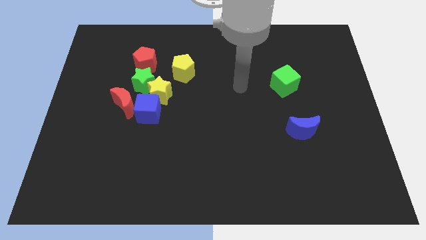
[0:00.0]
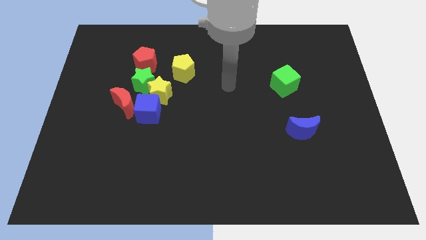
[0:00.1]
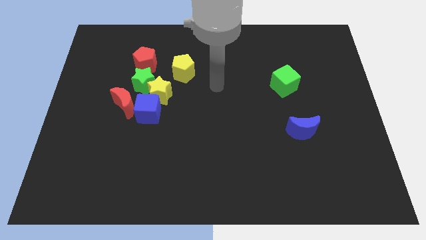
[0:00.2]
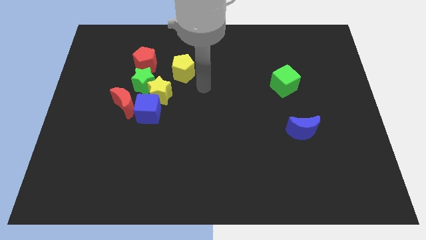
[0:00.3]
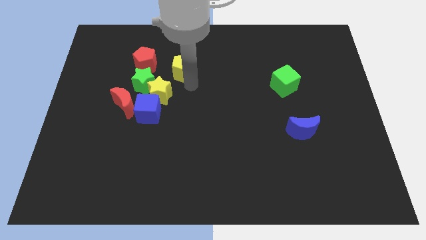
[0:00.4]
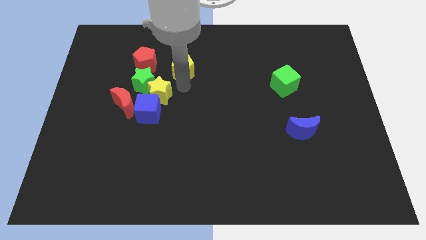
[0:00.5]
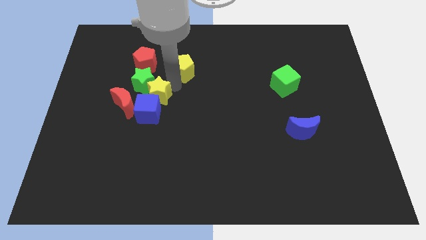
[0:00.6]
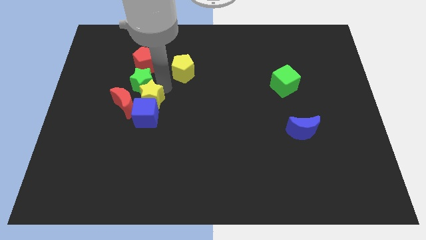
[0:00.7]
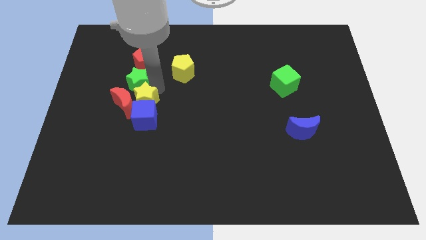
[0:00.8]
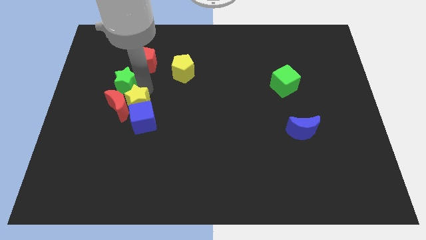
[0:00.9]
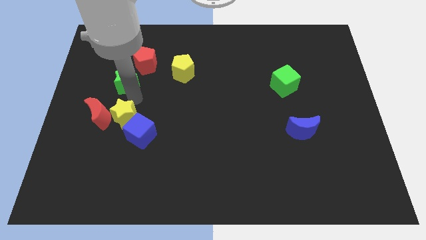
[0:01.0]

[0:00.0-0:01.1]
pull the blue cube apart from the yellow star, red moon, and green star

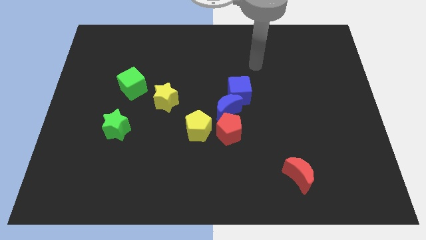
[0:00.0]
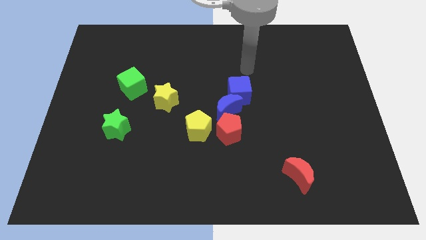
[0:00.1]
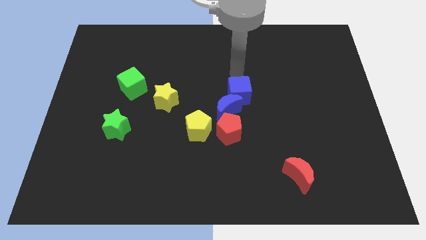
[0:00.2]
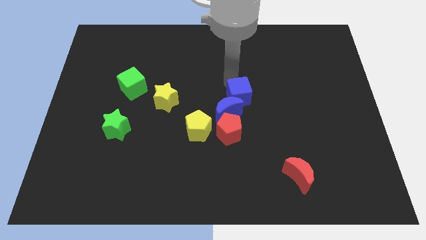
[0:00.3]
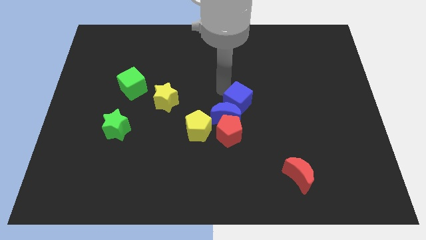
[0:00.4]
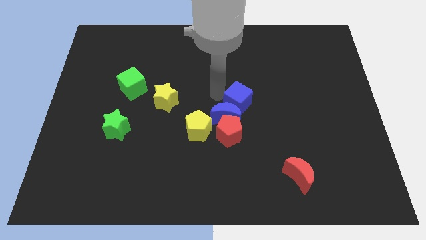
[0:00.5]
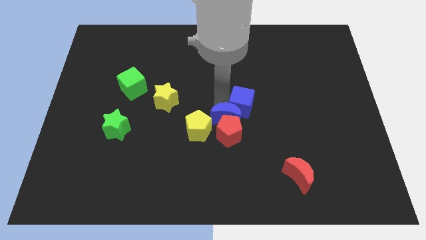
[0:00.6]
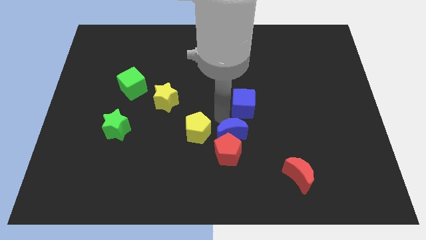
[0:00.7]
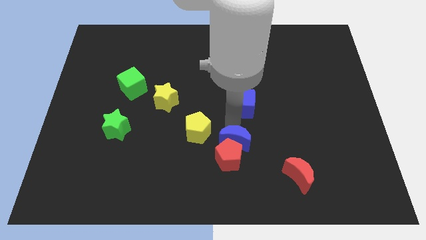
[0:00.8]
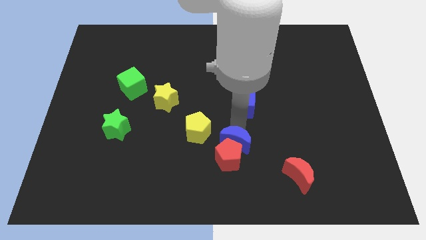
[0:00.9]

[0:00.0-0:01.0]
move the blue cube away from the blue moon

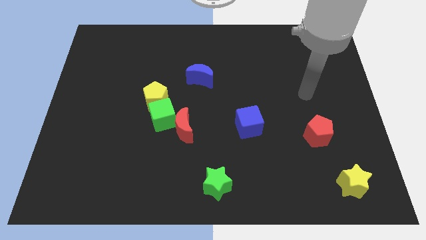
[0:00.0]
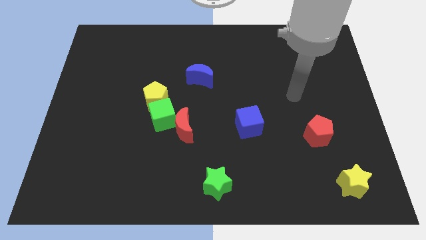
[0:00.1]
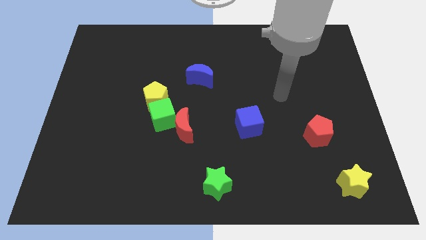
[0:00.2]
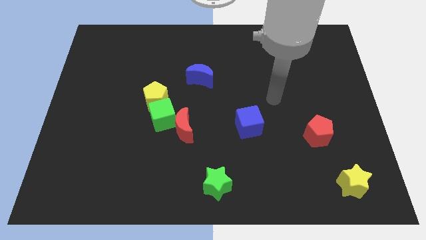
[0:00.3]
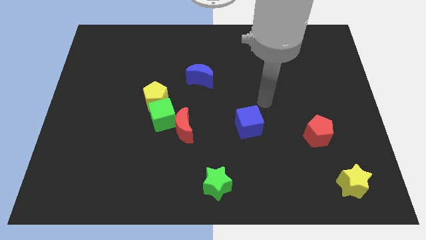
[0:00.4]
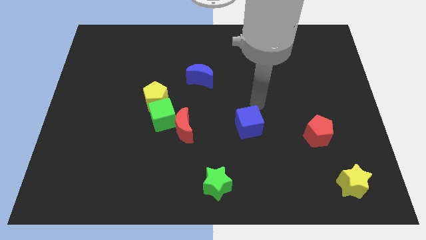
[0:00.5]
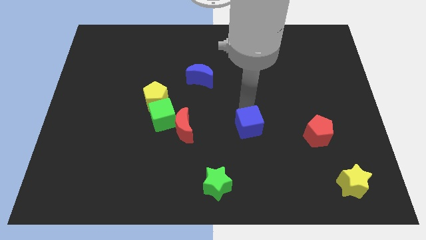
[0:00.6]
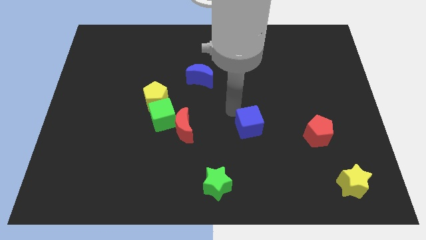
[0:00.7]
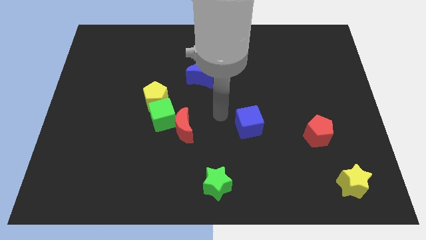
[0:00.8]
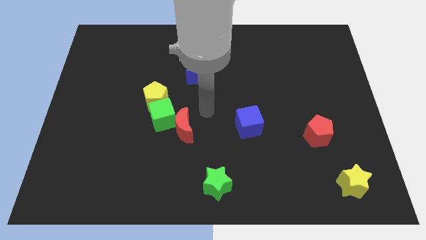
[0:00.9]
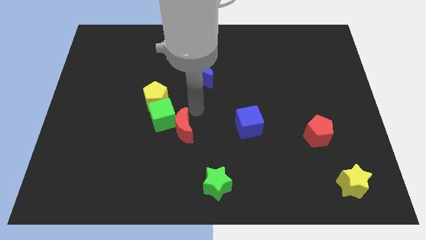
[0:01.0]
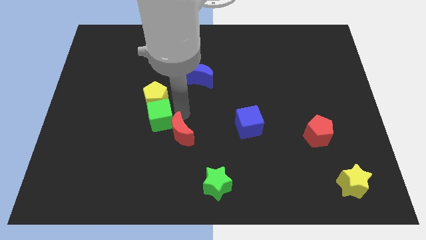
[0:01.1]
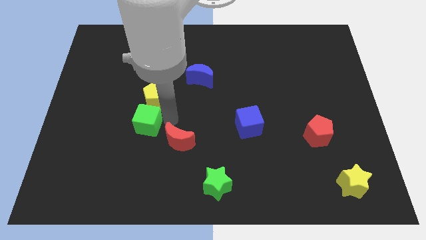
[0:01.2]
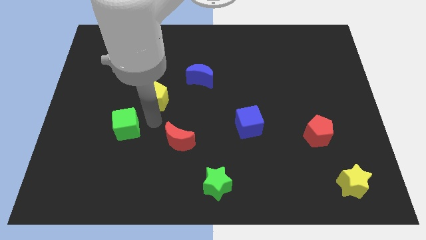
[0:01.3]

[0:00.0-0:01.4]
separate the yellow pentagon from the green cube

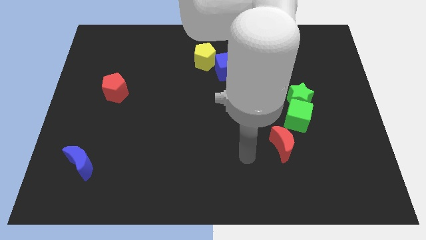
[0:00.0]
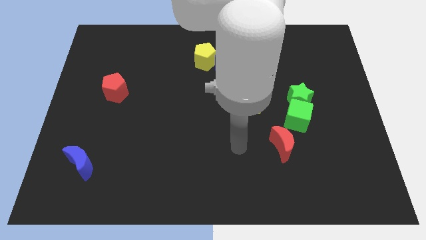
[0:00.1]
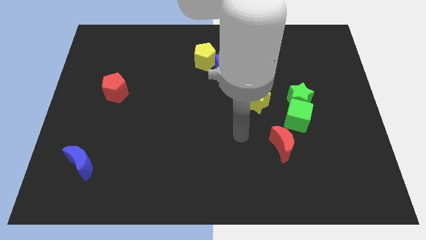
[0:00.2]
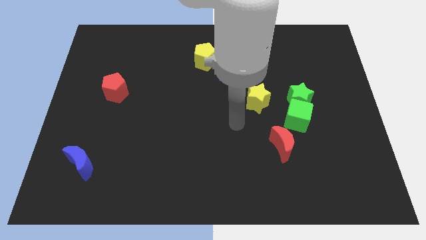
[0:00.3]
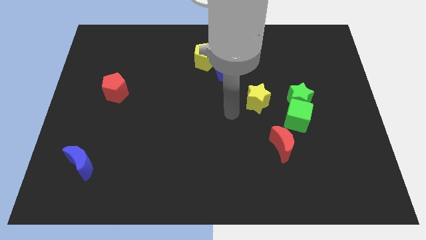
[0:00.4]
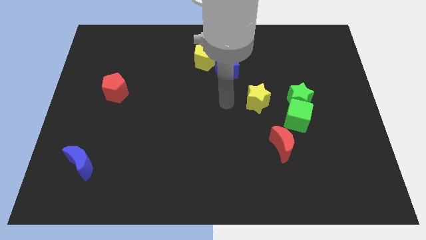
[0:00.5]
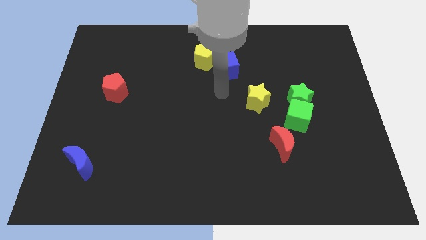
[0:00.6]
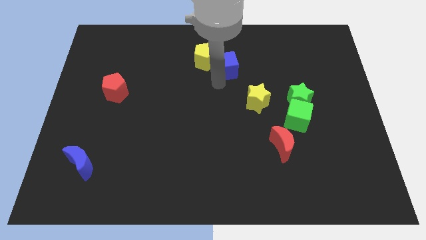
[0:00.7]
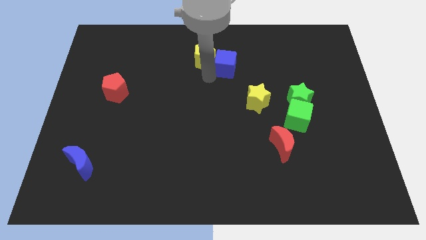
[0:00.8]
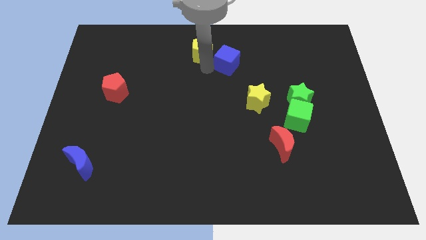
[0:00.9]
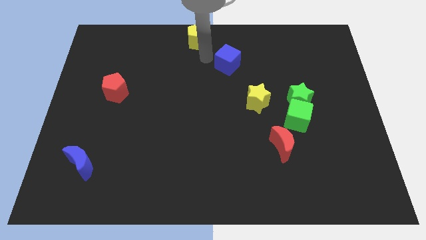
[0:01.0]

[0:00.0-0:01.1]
move the blue cube away from the yellow pentagon

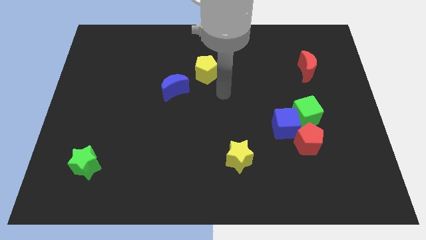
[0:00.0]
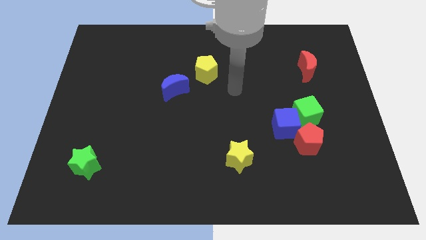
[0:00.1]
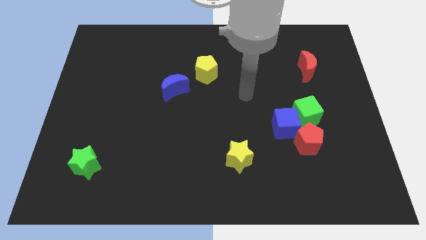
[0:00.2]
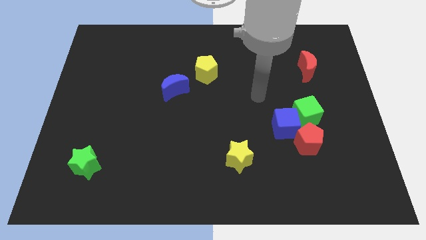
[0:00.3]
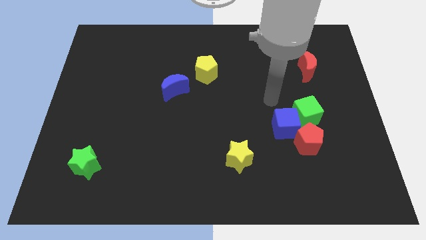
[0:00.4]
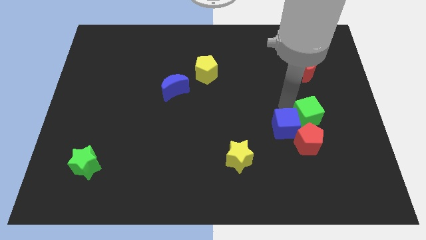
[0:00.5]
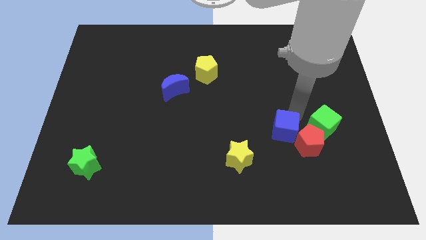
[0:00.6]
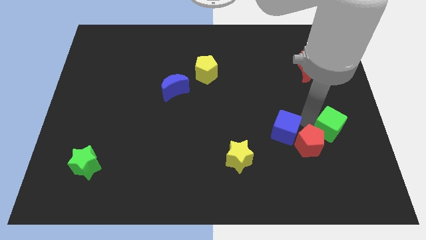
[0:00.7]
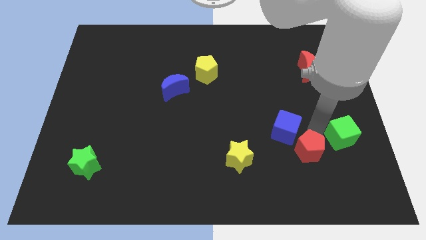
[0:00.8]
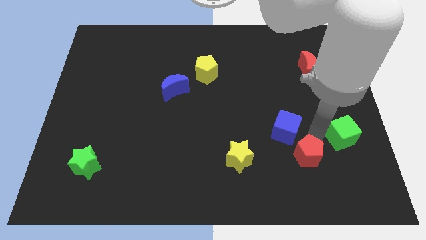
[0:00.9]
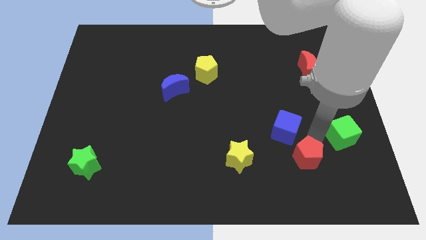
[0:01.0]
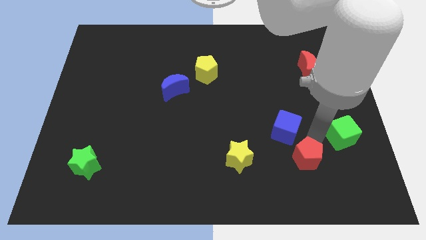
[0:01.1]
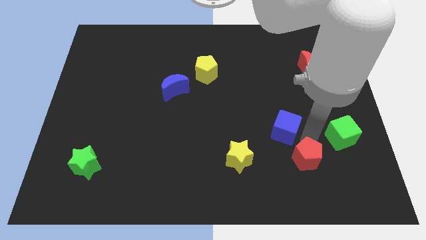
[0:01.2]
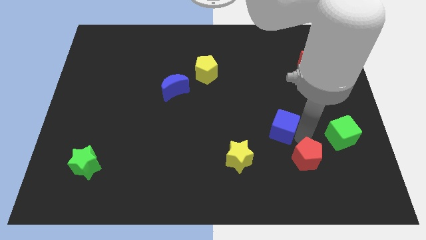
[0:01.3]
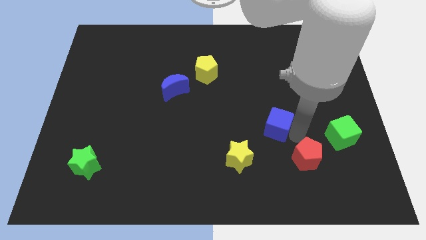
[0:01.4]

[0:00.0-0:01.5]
move the blue cube away from the green cube and red pentagon

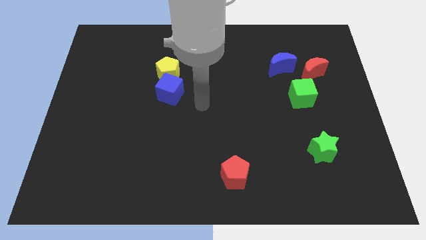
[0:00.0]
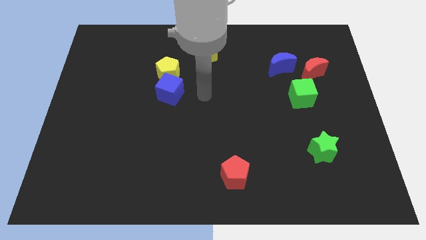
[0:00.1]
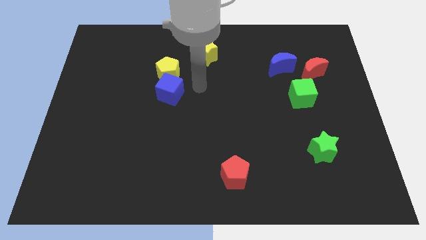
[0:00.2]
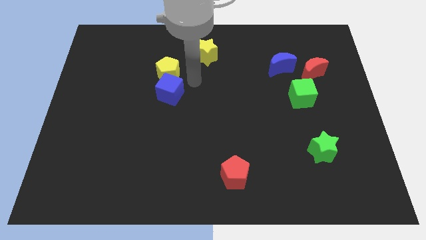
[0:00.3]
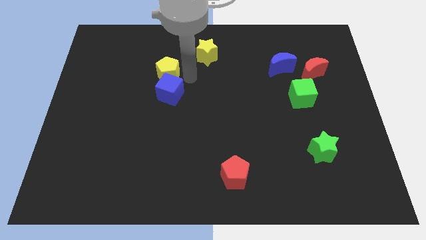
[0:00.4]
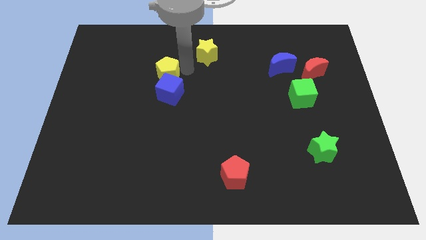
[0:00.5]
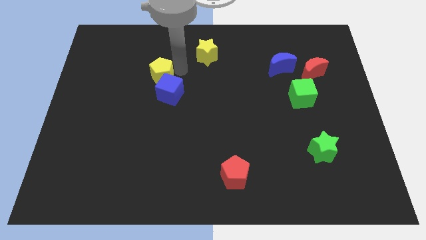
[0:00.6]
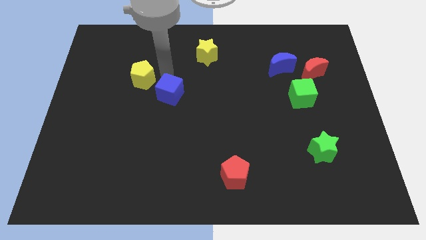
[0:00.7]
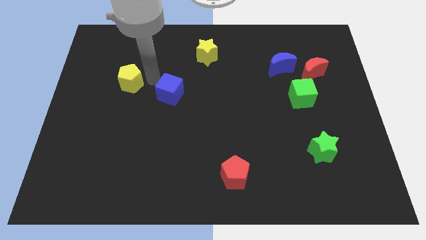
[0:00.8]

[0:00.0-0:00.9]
pull the blue cube apart from the yellow pentagon

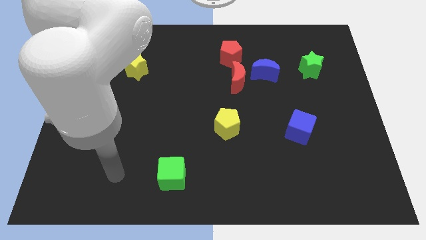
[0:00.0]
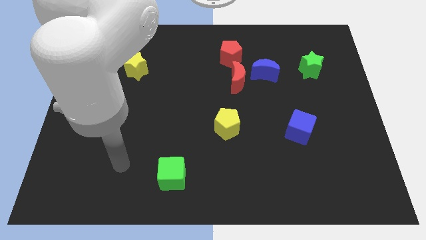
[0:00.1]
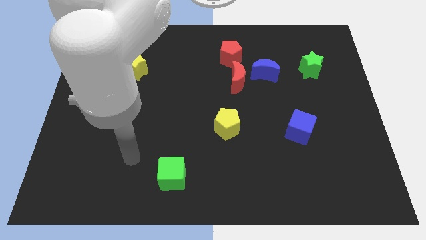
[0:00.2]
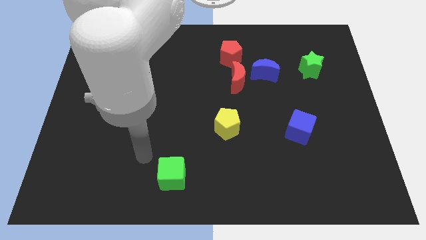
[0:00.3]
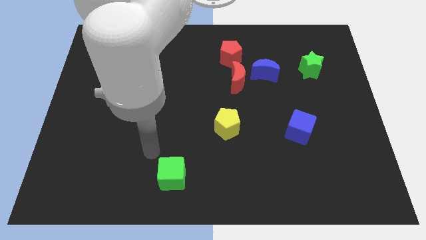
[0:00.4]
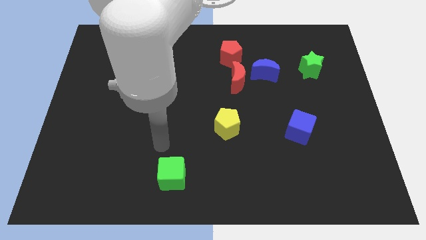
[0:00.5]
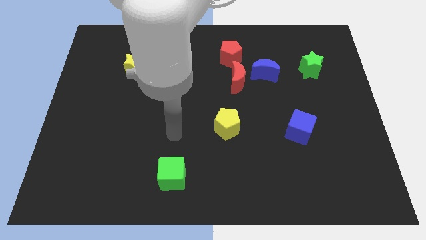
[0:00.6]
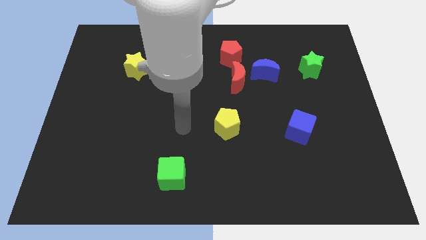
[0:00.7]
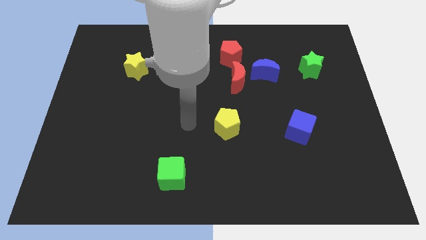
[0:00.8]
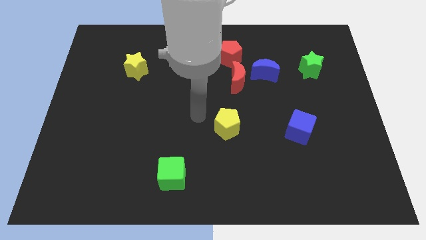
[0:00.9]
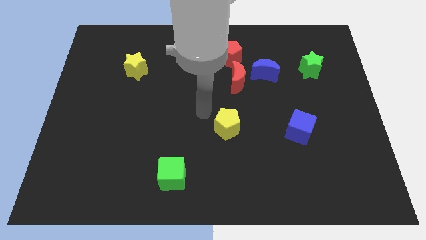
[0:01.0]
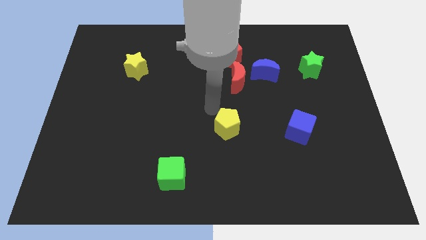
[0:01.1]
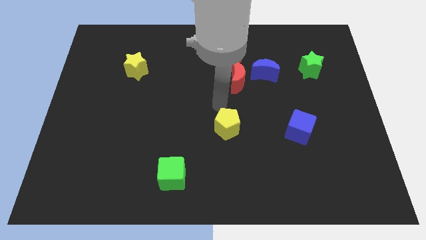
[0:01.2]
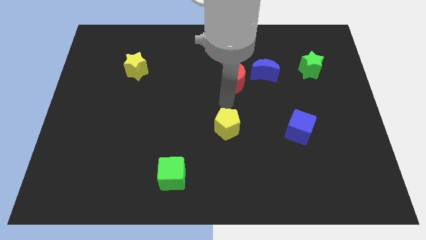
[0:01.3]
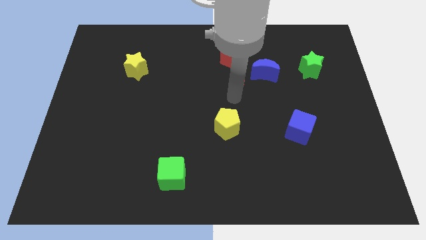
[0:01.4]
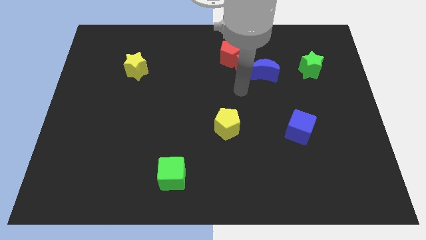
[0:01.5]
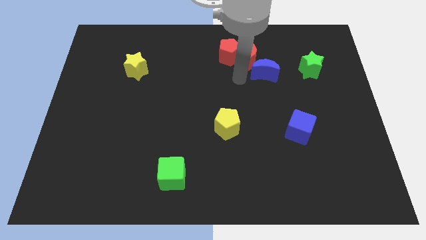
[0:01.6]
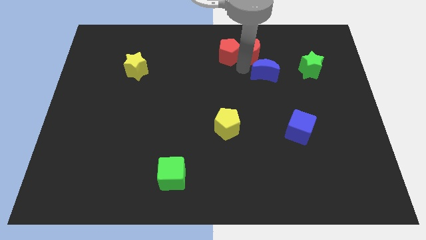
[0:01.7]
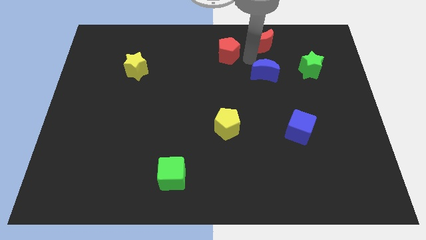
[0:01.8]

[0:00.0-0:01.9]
move the blue moon away from the red moon

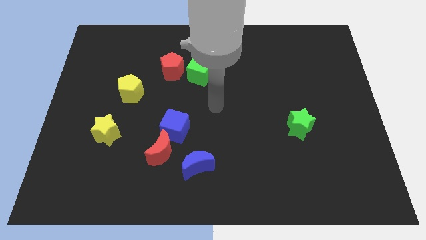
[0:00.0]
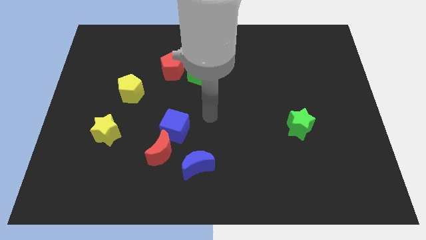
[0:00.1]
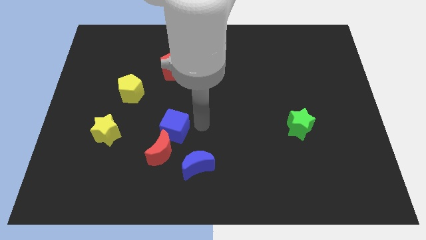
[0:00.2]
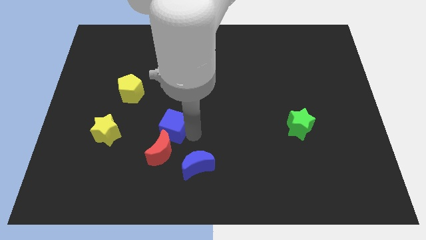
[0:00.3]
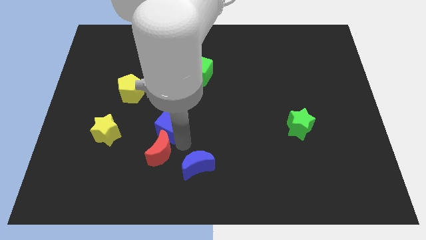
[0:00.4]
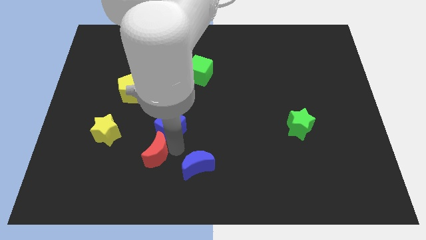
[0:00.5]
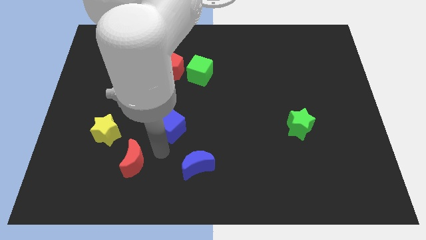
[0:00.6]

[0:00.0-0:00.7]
separate the blue cube from the red moon
